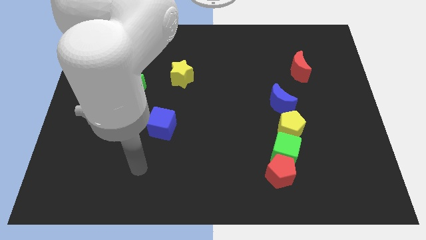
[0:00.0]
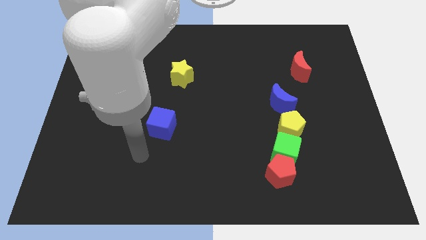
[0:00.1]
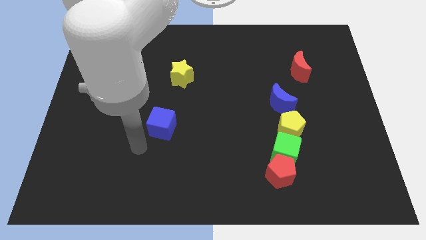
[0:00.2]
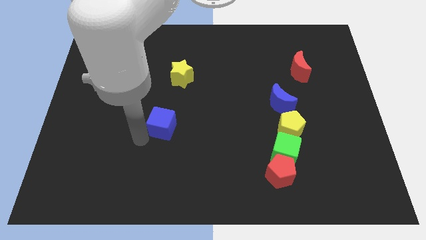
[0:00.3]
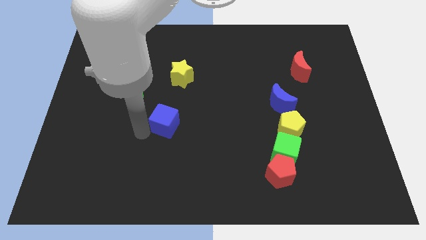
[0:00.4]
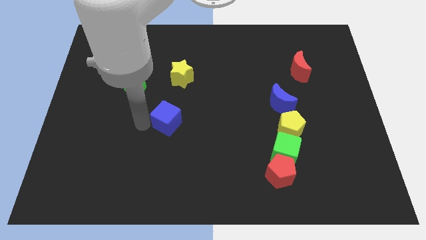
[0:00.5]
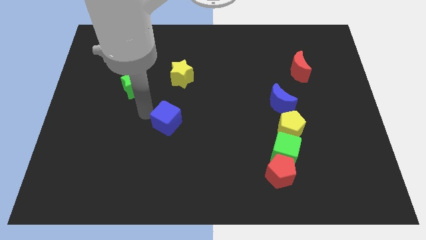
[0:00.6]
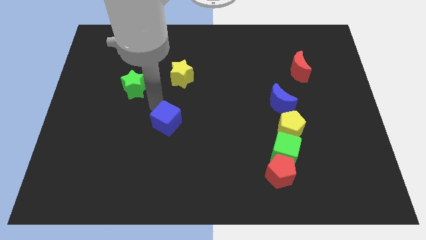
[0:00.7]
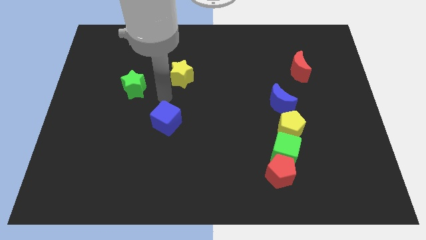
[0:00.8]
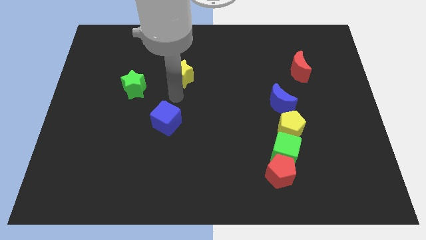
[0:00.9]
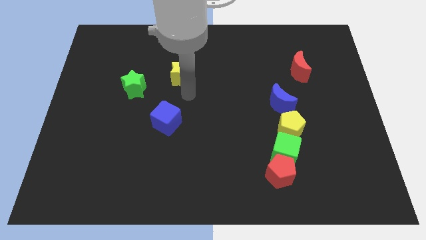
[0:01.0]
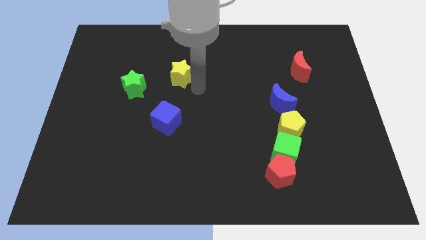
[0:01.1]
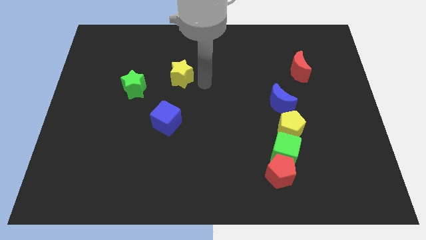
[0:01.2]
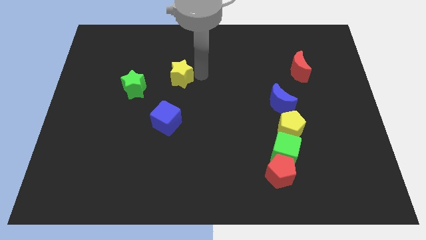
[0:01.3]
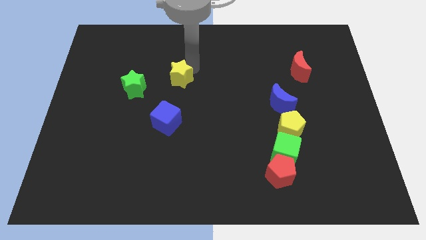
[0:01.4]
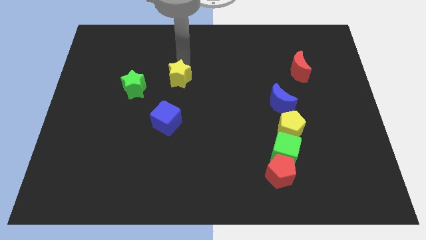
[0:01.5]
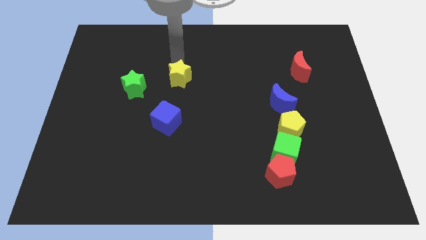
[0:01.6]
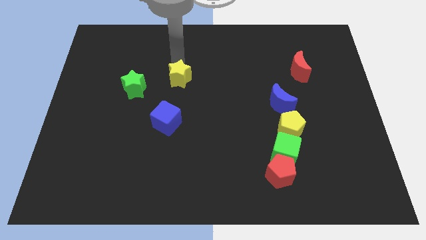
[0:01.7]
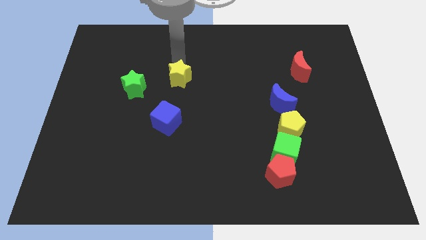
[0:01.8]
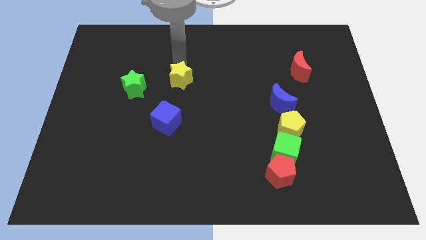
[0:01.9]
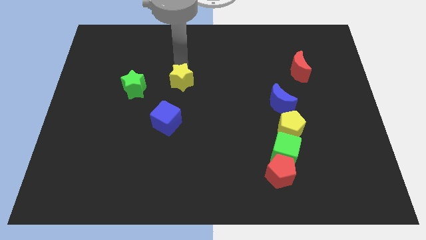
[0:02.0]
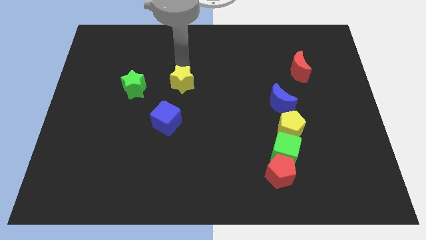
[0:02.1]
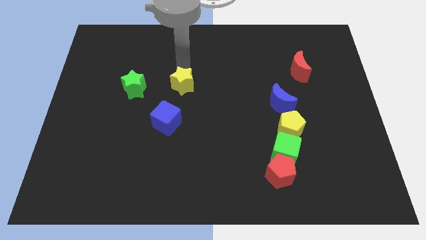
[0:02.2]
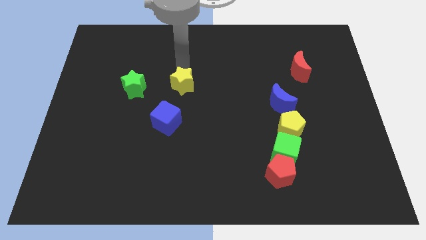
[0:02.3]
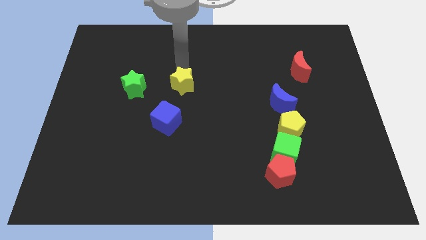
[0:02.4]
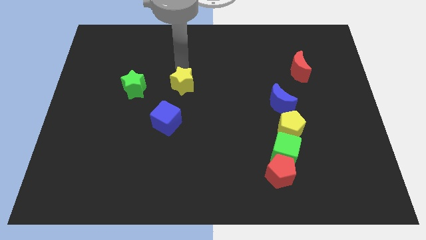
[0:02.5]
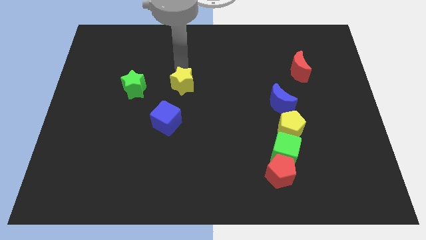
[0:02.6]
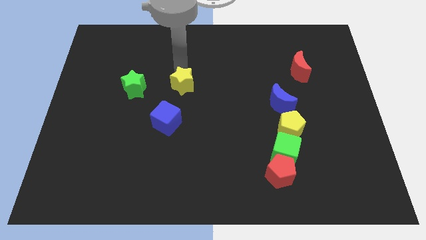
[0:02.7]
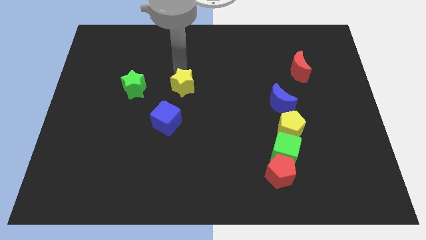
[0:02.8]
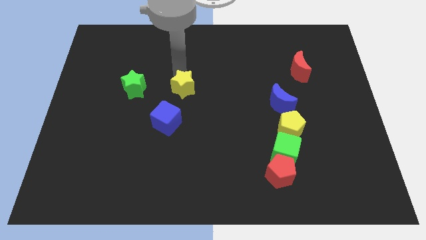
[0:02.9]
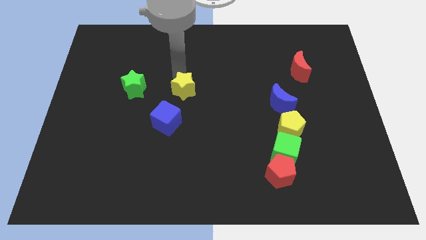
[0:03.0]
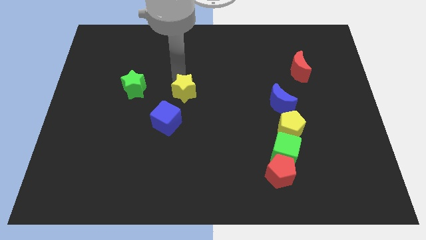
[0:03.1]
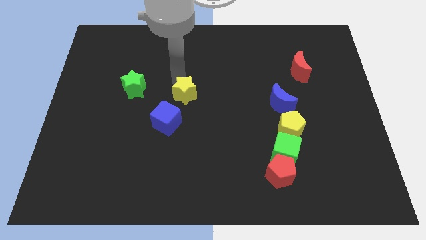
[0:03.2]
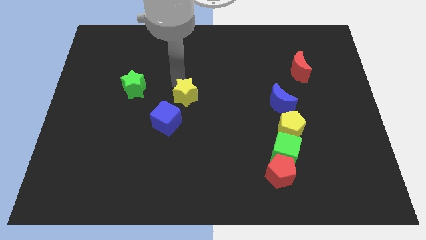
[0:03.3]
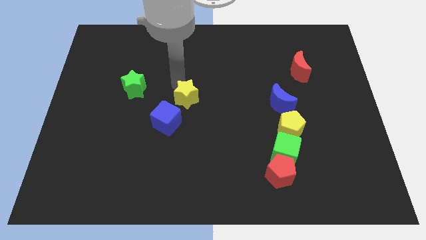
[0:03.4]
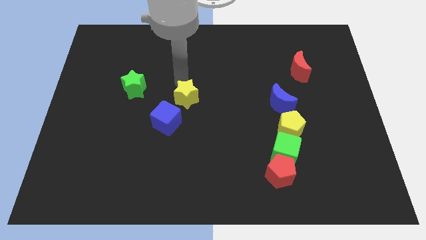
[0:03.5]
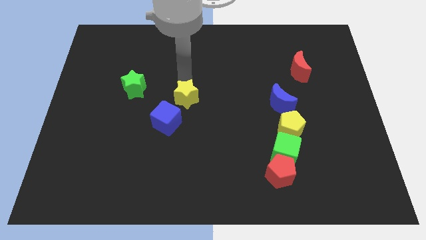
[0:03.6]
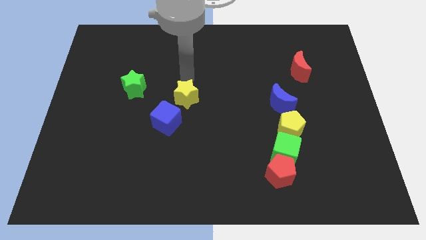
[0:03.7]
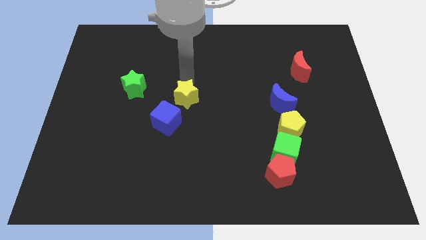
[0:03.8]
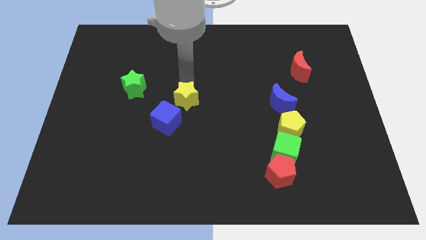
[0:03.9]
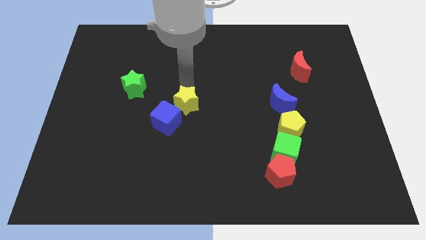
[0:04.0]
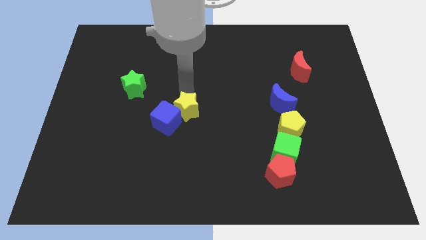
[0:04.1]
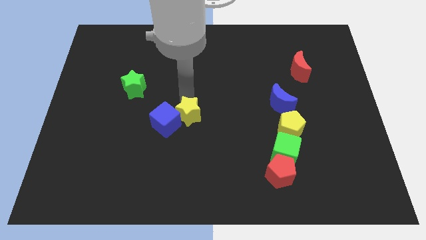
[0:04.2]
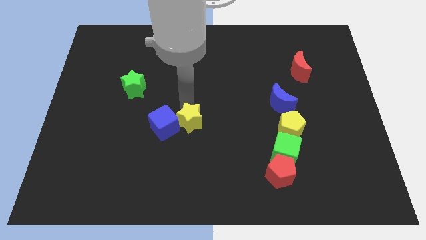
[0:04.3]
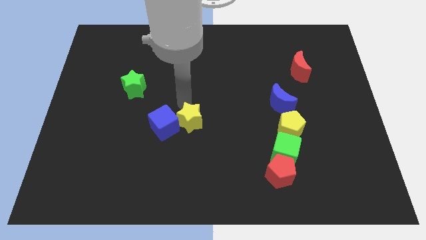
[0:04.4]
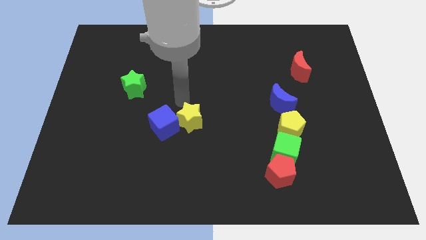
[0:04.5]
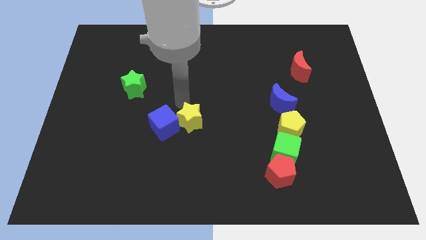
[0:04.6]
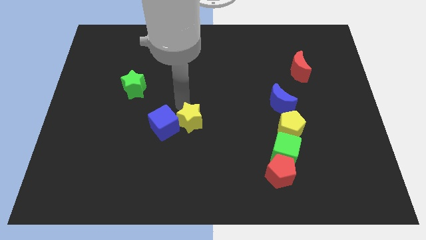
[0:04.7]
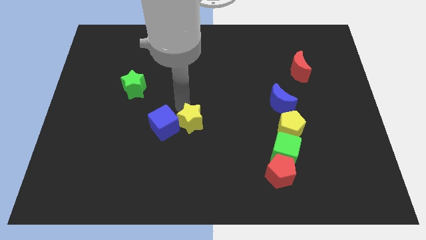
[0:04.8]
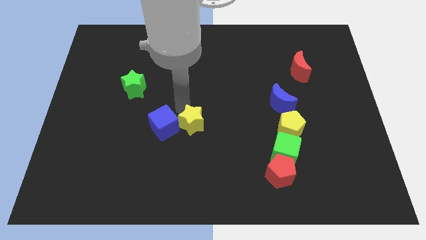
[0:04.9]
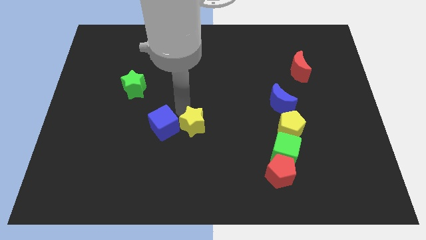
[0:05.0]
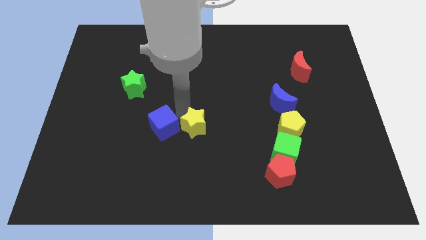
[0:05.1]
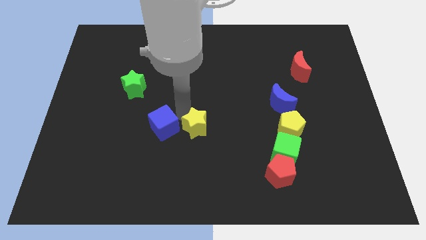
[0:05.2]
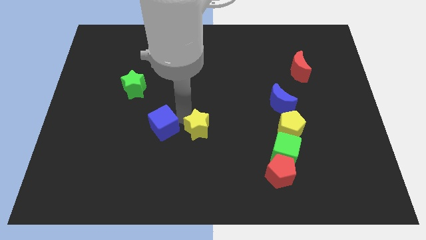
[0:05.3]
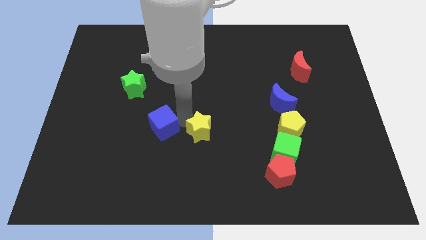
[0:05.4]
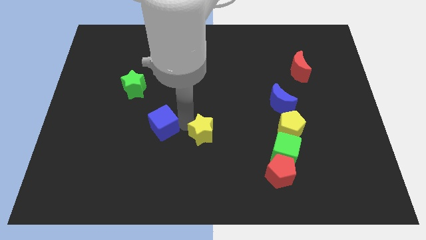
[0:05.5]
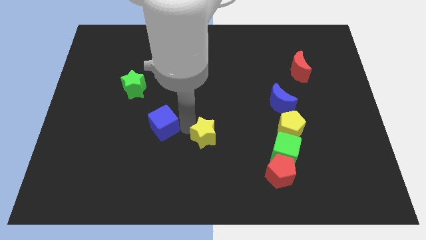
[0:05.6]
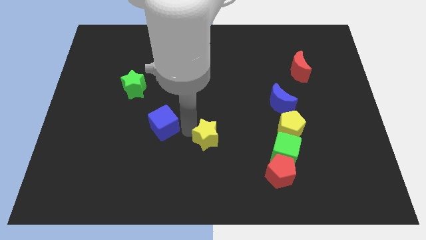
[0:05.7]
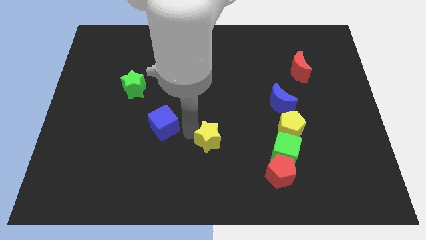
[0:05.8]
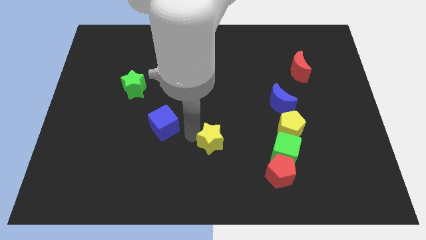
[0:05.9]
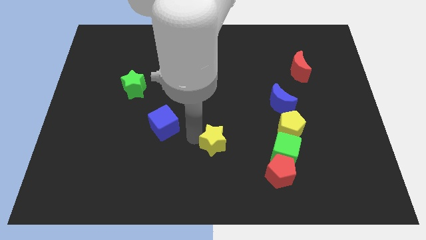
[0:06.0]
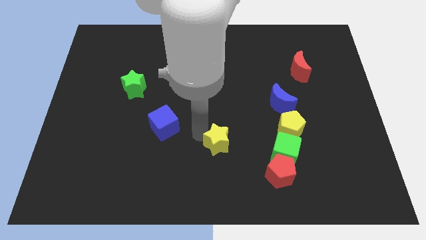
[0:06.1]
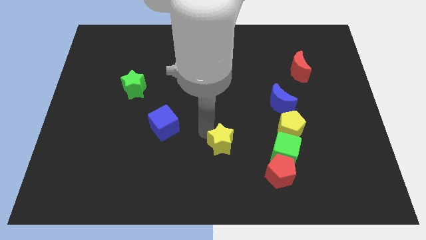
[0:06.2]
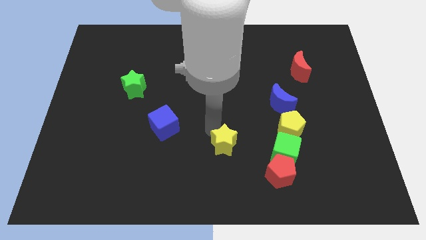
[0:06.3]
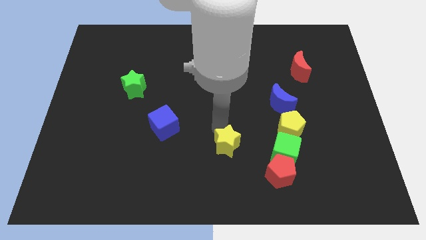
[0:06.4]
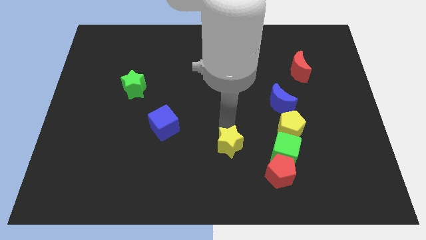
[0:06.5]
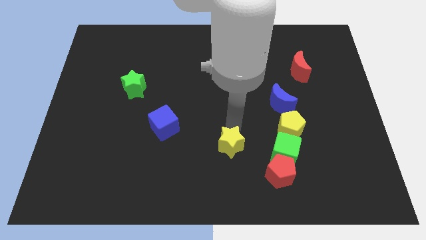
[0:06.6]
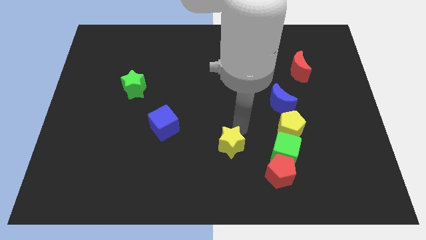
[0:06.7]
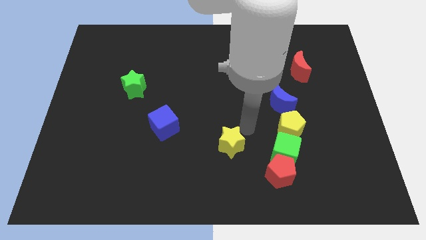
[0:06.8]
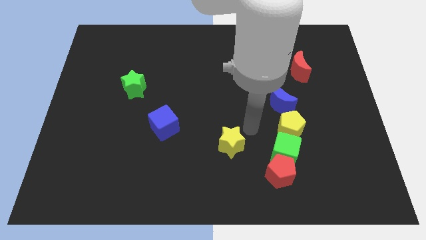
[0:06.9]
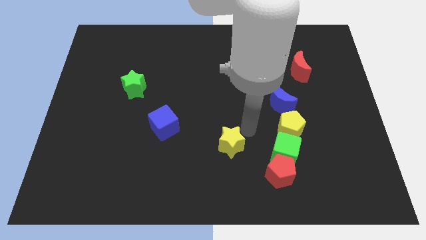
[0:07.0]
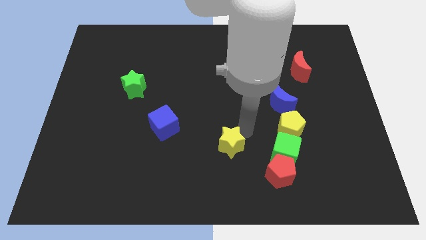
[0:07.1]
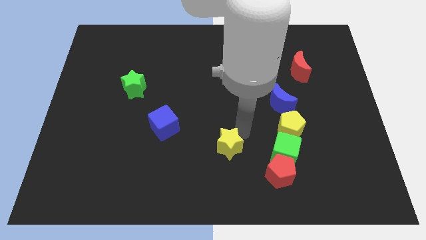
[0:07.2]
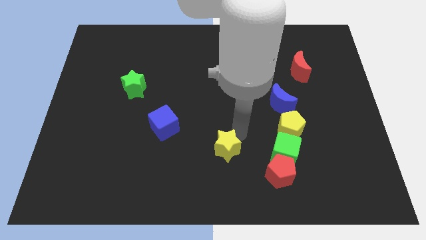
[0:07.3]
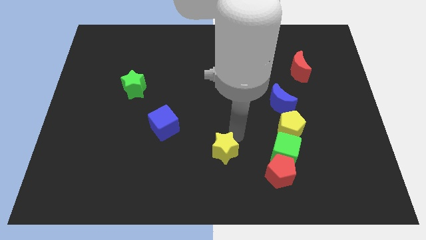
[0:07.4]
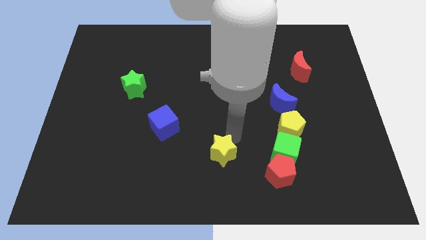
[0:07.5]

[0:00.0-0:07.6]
push the yellow star to the bottom

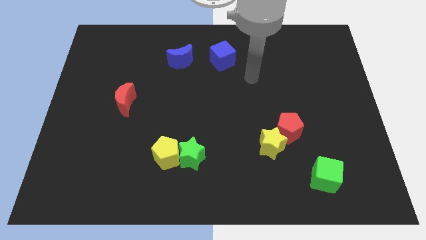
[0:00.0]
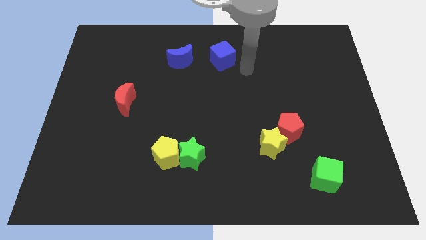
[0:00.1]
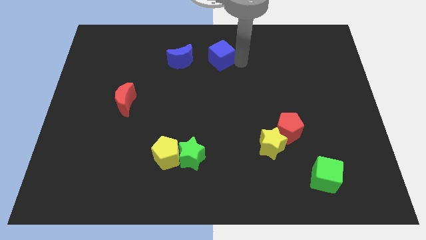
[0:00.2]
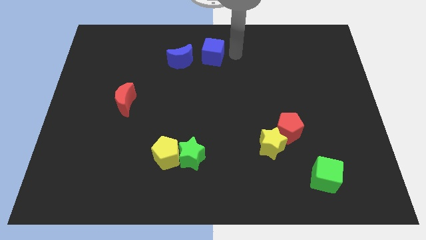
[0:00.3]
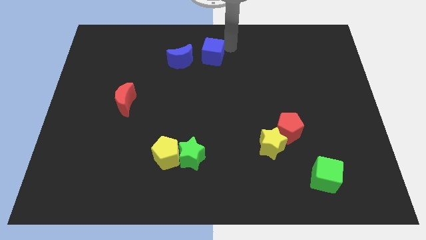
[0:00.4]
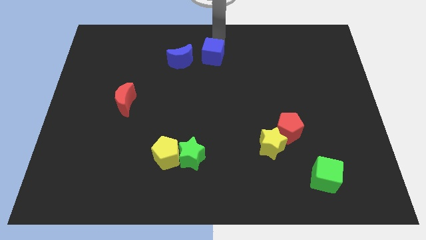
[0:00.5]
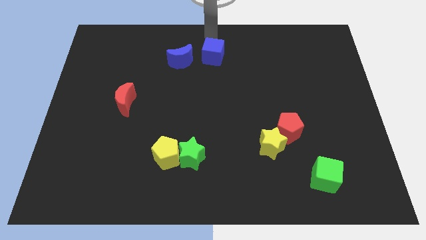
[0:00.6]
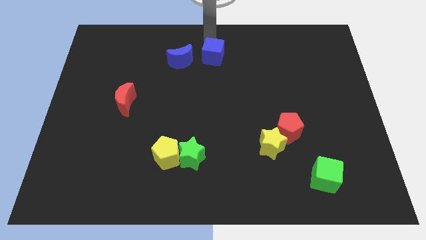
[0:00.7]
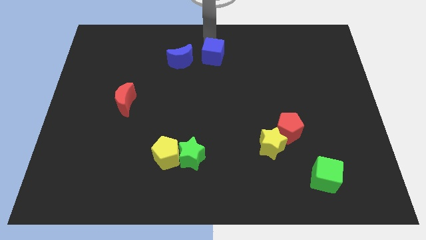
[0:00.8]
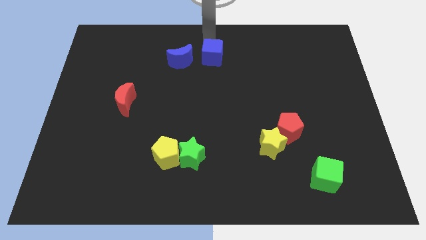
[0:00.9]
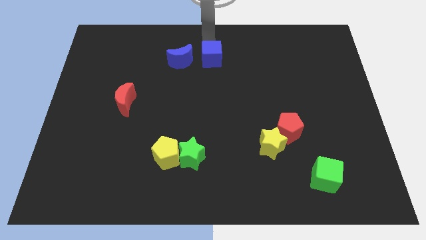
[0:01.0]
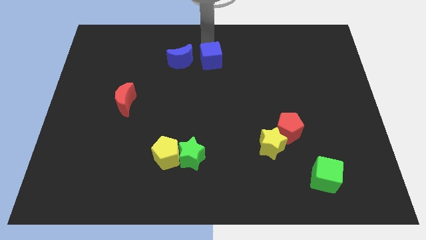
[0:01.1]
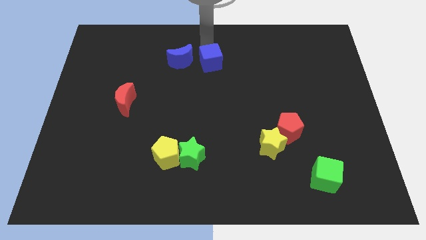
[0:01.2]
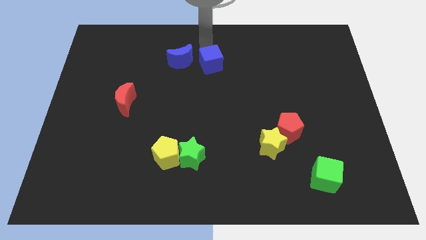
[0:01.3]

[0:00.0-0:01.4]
put the blue cube to the center
